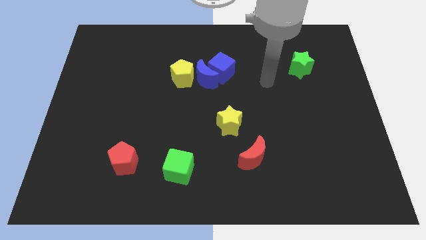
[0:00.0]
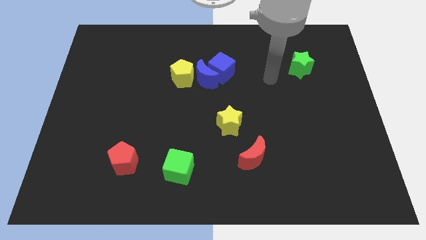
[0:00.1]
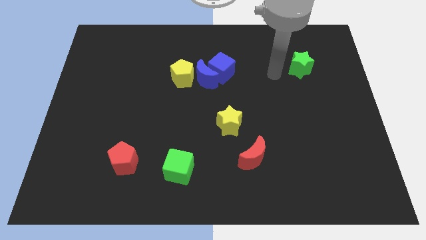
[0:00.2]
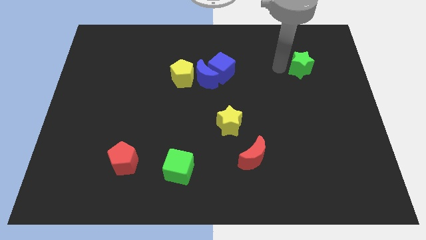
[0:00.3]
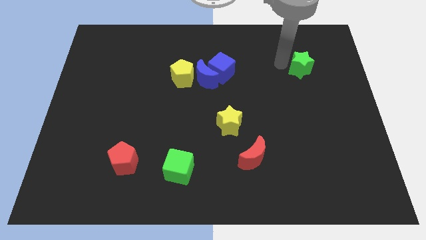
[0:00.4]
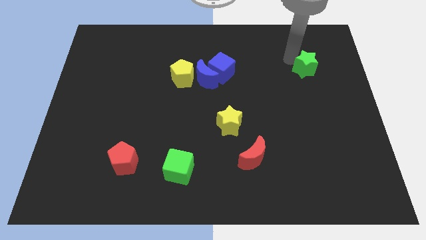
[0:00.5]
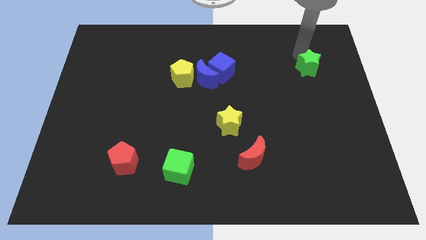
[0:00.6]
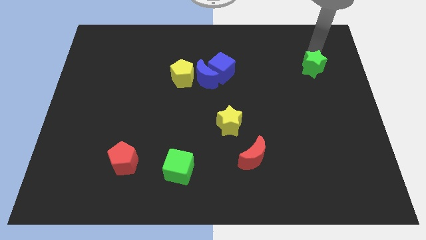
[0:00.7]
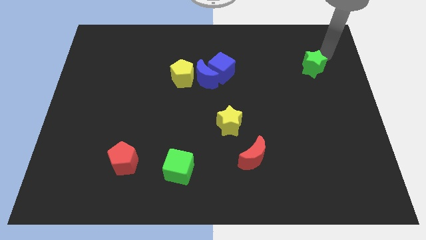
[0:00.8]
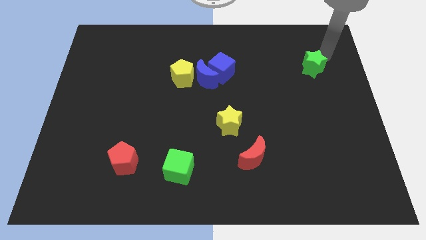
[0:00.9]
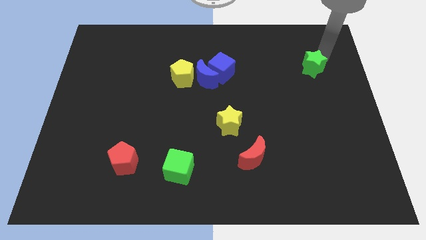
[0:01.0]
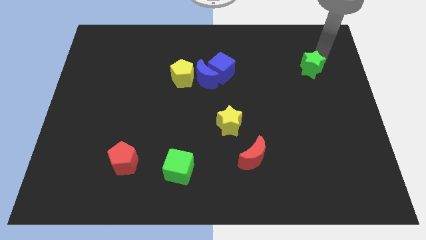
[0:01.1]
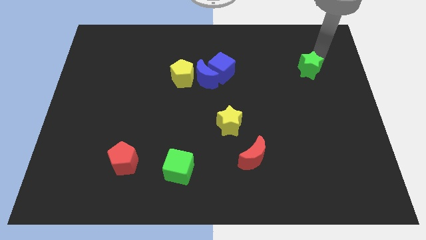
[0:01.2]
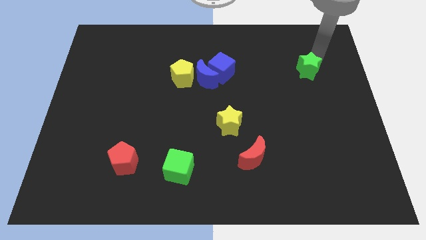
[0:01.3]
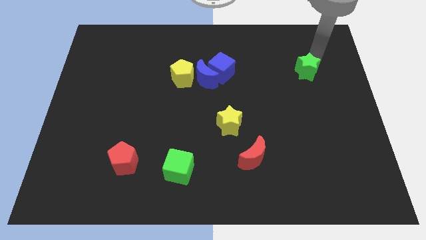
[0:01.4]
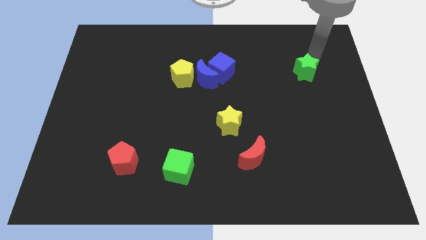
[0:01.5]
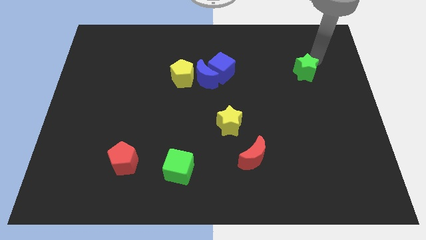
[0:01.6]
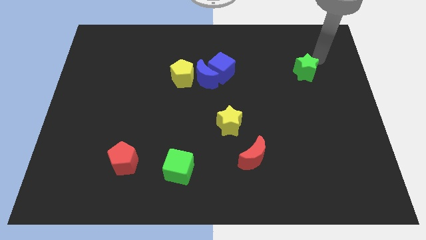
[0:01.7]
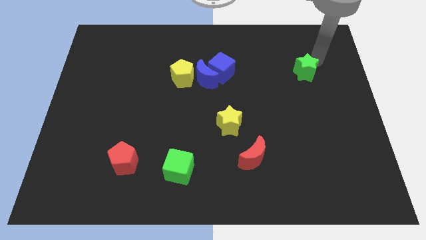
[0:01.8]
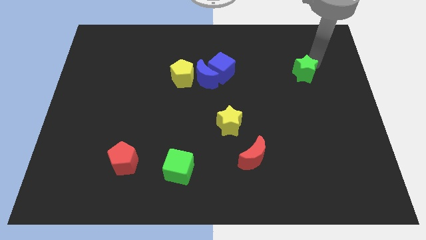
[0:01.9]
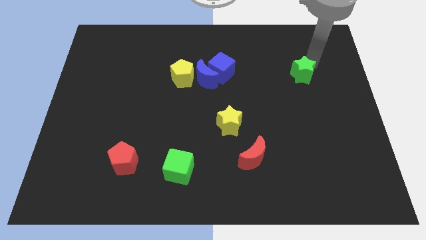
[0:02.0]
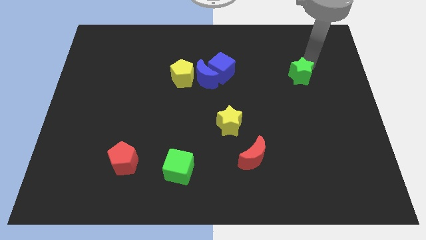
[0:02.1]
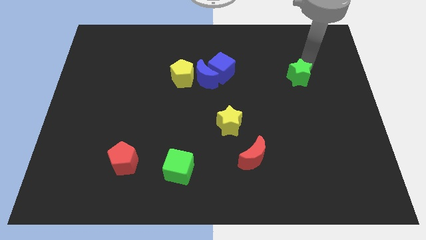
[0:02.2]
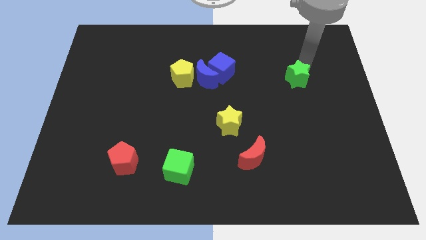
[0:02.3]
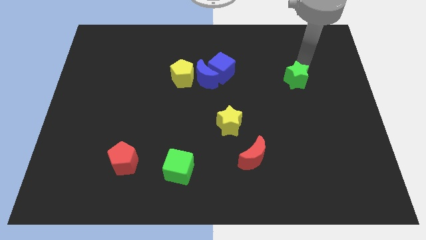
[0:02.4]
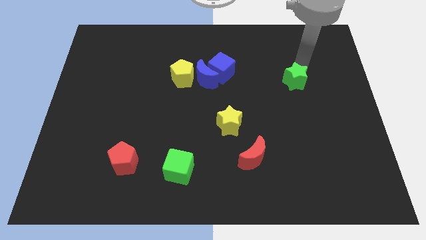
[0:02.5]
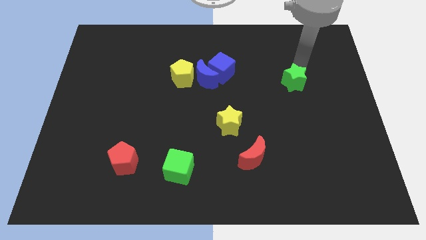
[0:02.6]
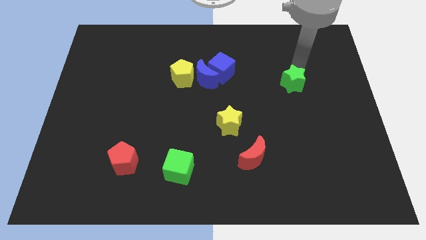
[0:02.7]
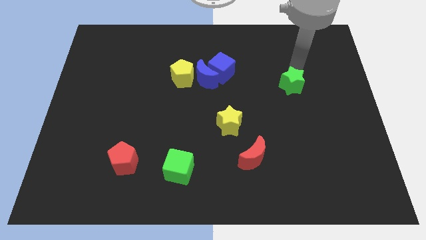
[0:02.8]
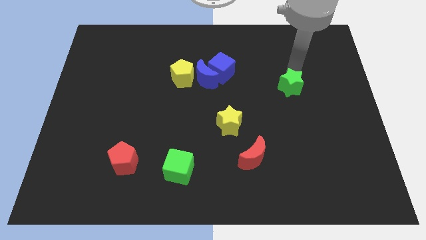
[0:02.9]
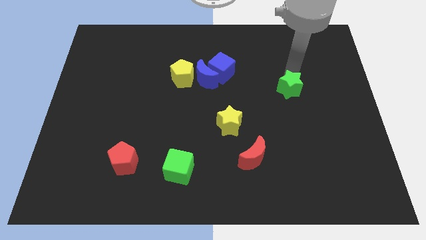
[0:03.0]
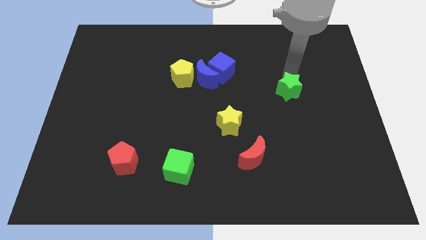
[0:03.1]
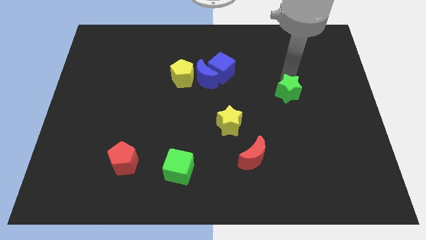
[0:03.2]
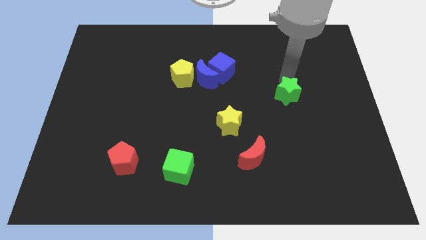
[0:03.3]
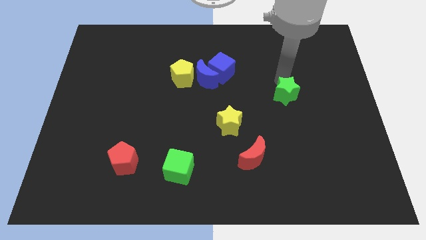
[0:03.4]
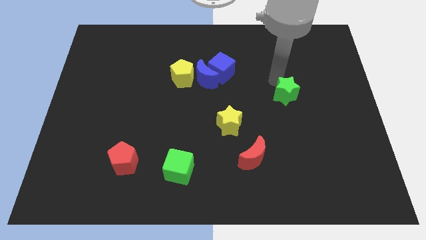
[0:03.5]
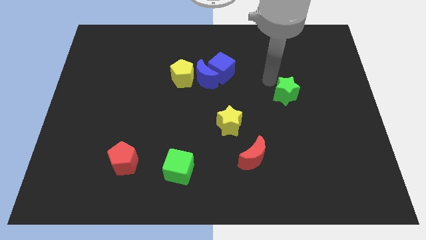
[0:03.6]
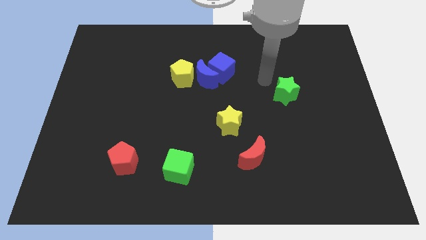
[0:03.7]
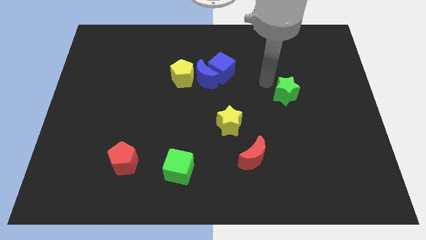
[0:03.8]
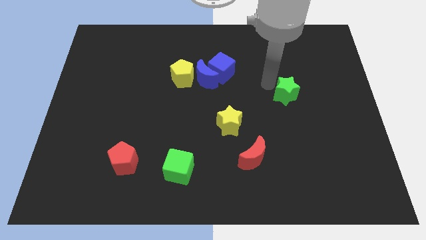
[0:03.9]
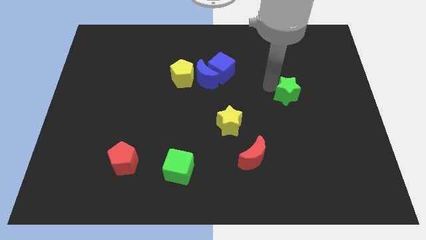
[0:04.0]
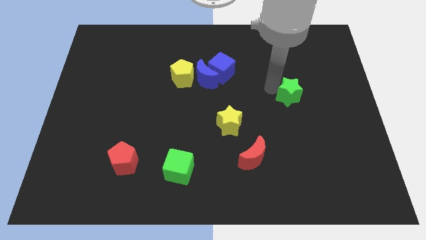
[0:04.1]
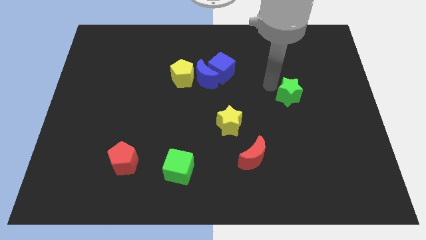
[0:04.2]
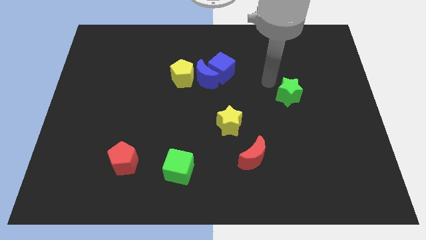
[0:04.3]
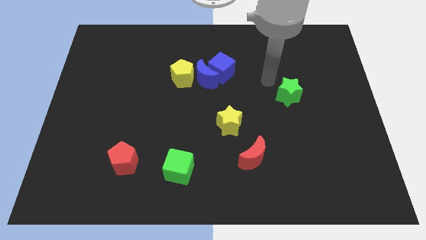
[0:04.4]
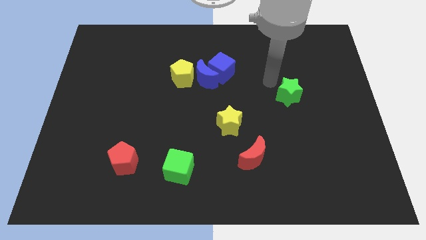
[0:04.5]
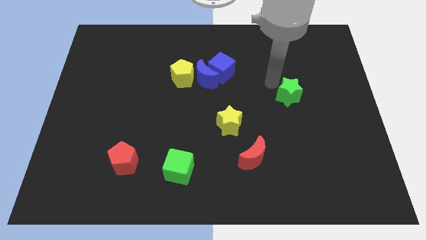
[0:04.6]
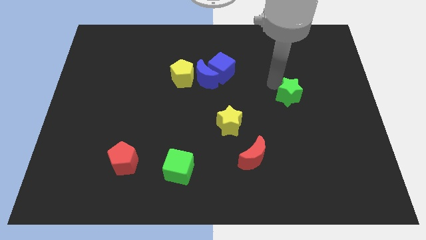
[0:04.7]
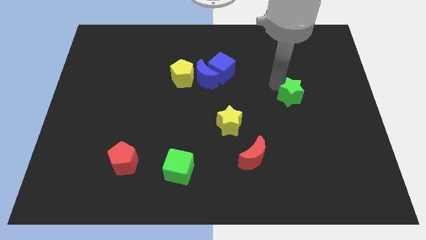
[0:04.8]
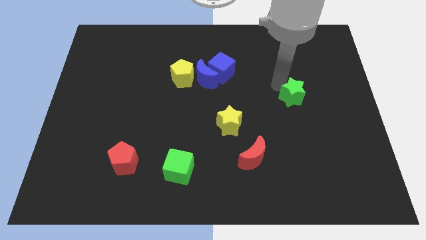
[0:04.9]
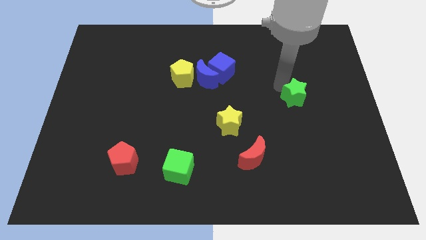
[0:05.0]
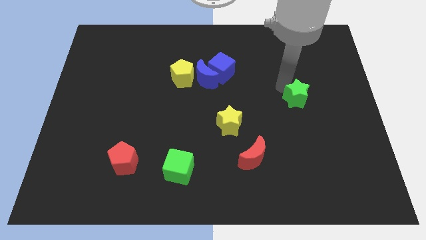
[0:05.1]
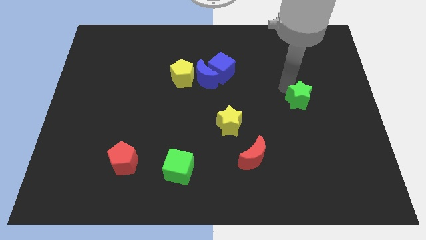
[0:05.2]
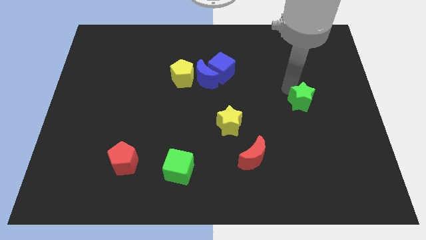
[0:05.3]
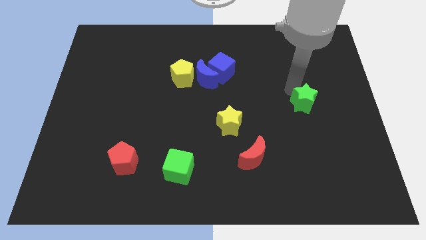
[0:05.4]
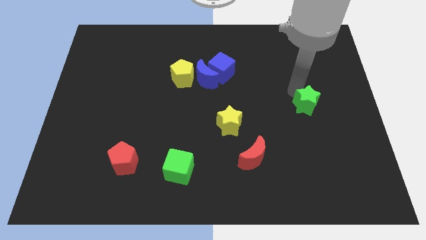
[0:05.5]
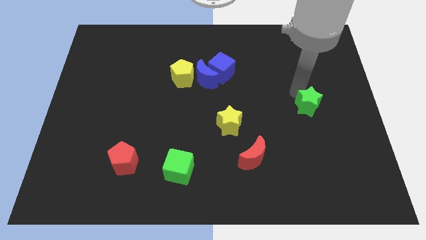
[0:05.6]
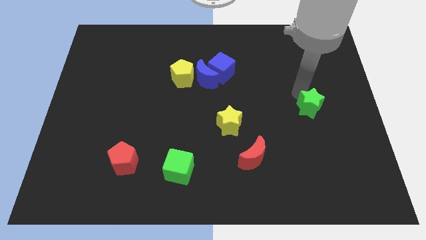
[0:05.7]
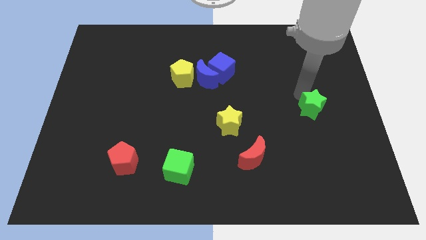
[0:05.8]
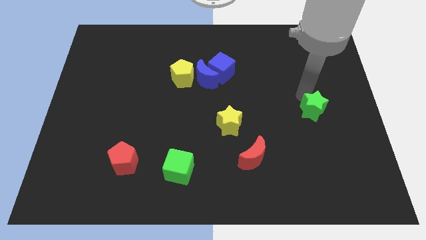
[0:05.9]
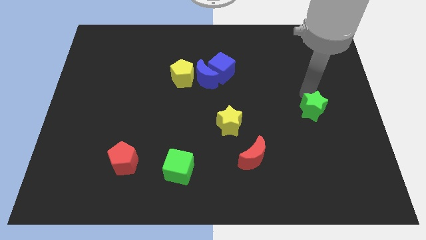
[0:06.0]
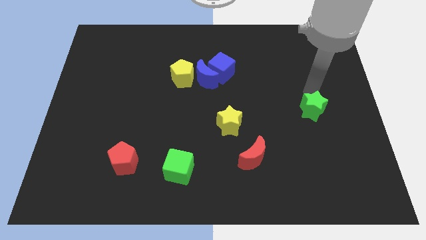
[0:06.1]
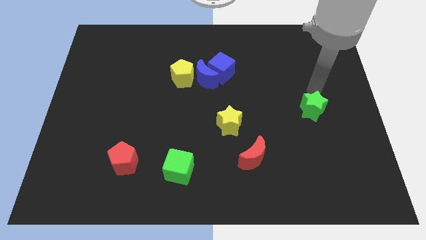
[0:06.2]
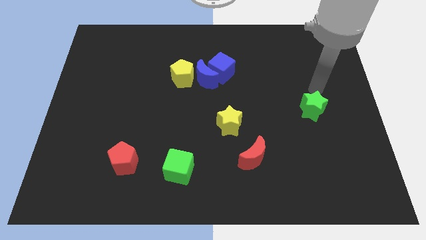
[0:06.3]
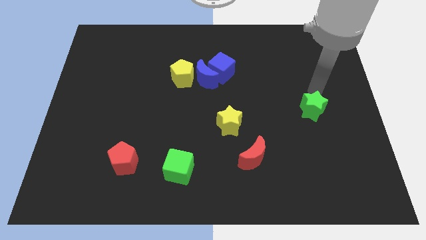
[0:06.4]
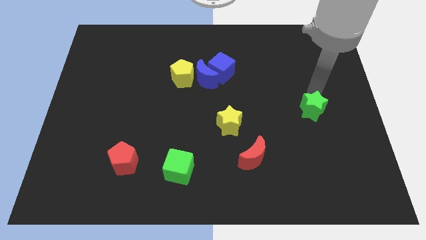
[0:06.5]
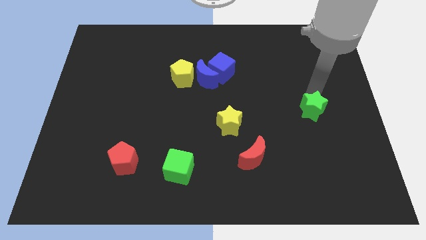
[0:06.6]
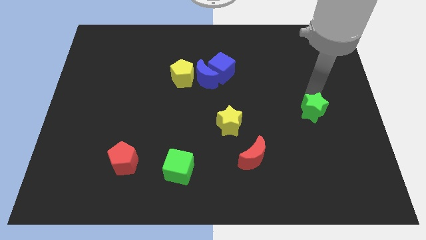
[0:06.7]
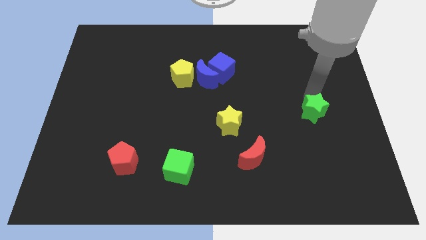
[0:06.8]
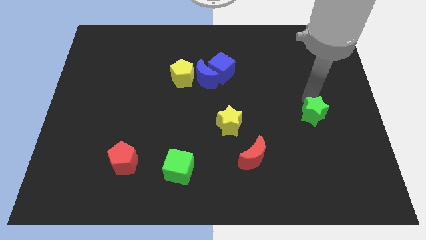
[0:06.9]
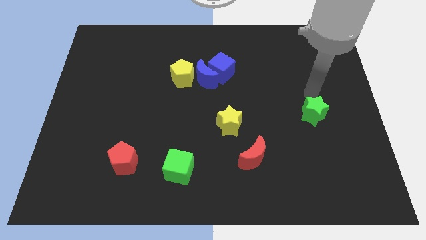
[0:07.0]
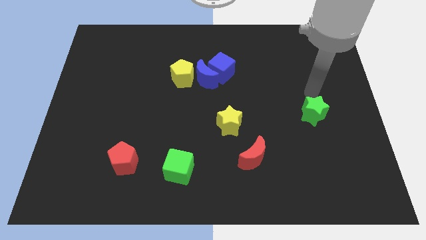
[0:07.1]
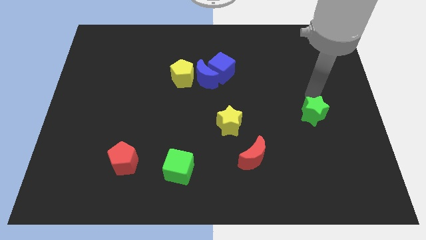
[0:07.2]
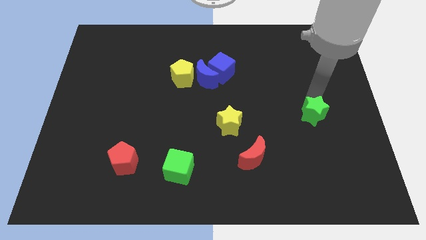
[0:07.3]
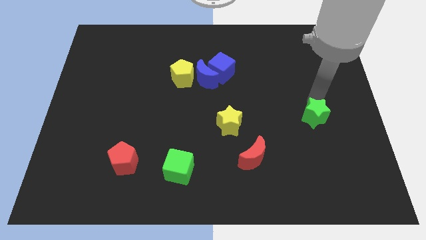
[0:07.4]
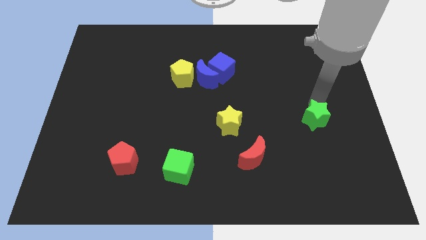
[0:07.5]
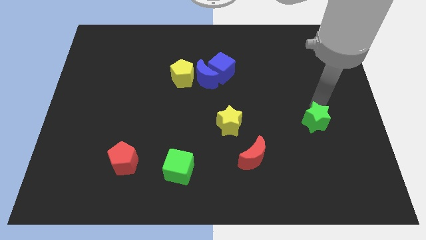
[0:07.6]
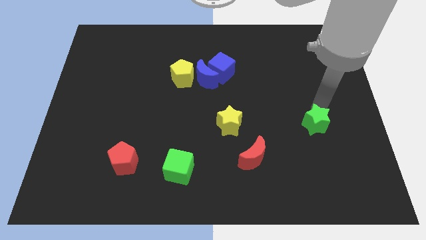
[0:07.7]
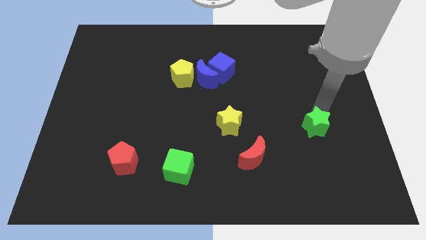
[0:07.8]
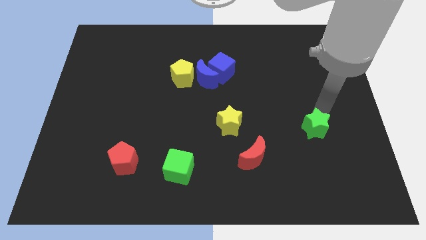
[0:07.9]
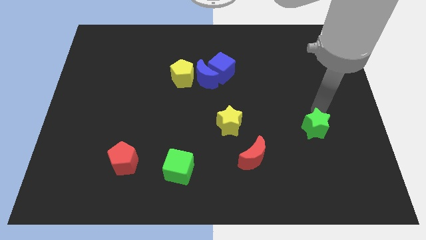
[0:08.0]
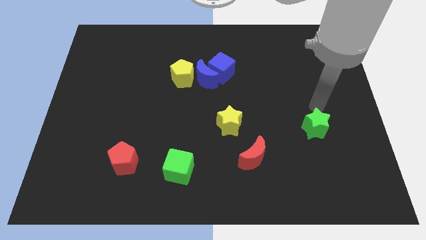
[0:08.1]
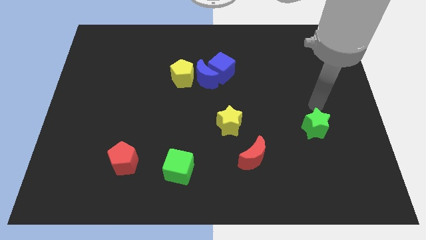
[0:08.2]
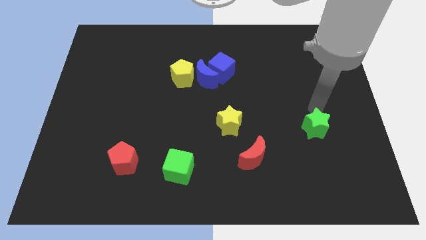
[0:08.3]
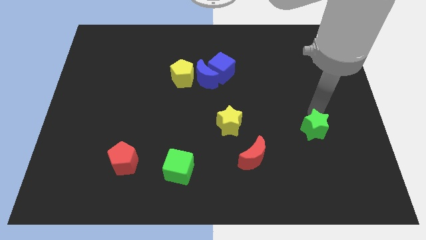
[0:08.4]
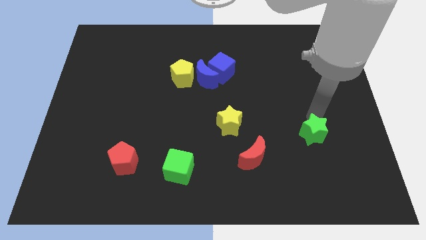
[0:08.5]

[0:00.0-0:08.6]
push the green star downwards
